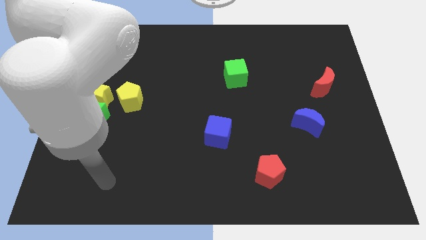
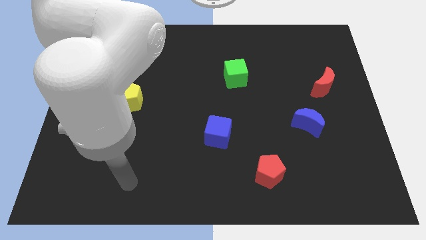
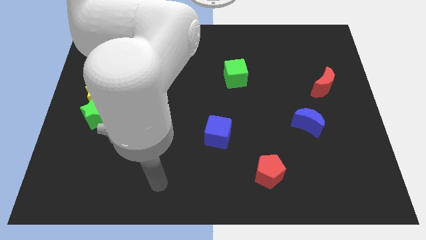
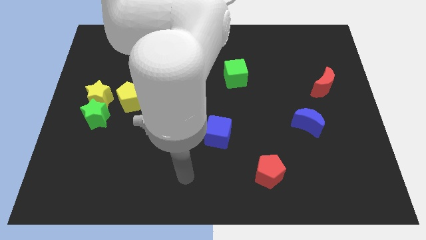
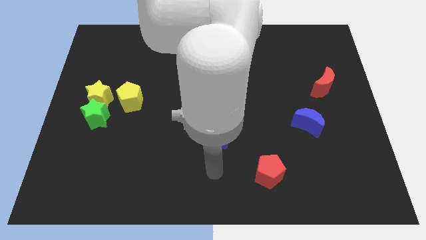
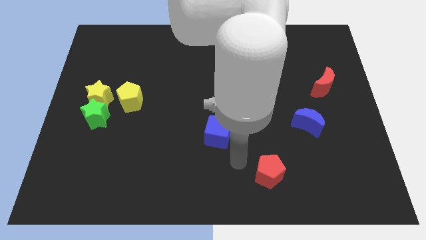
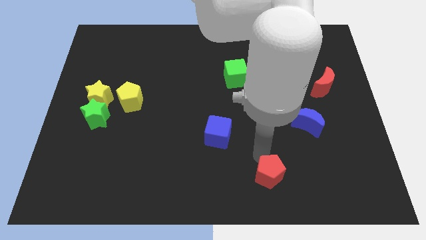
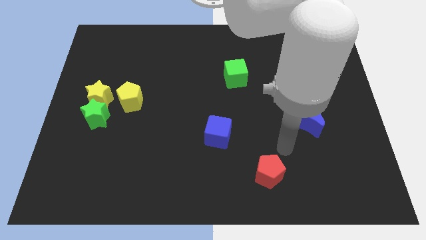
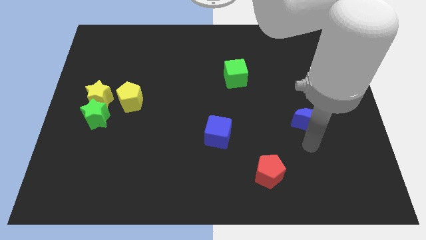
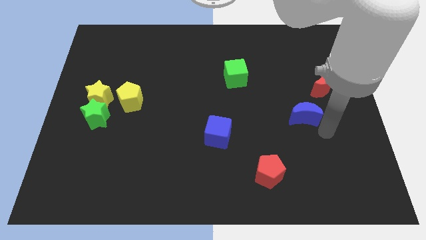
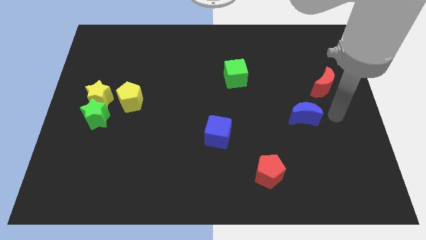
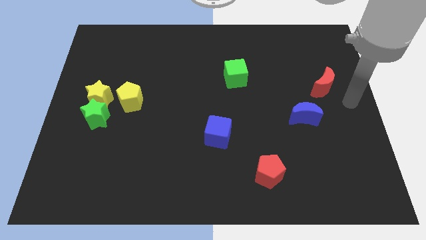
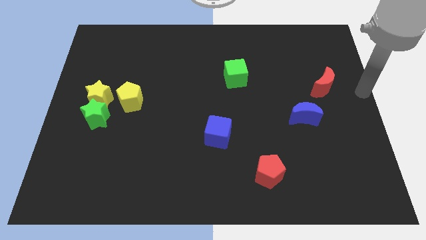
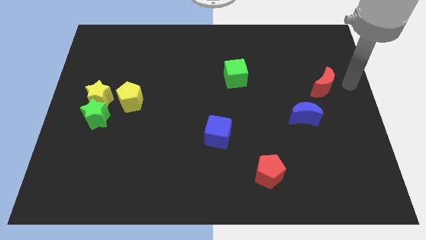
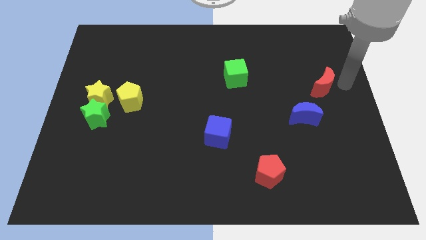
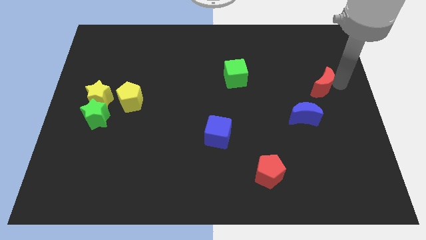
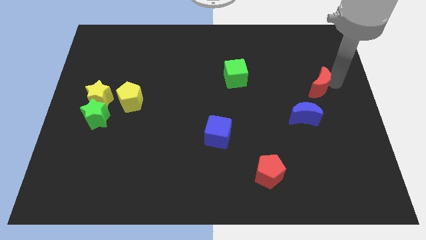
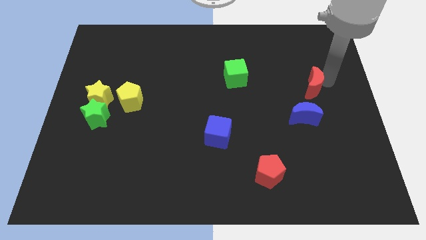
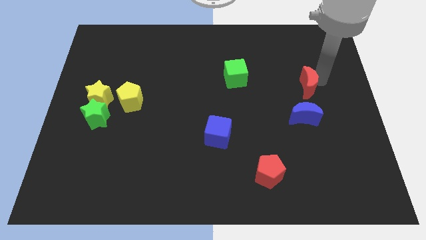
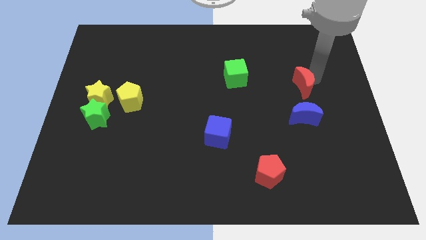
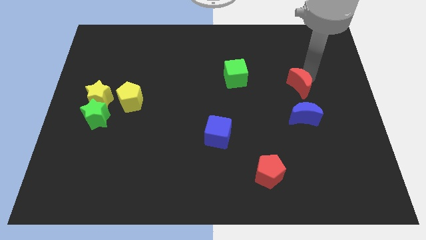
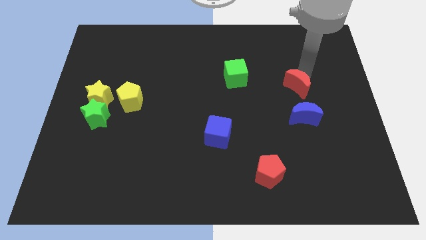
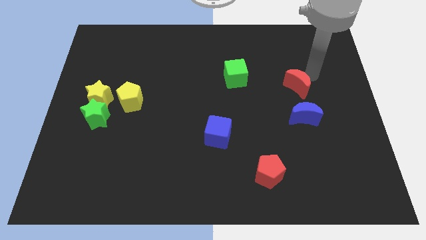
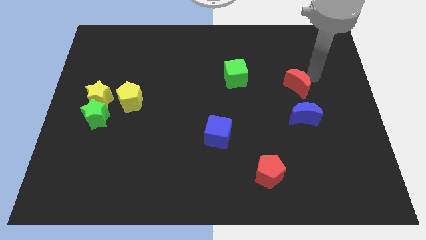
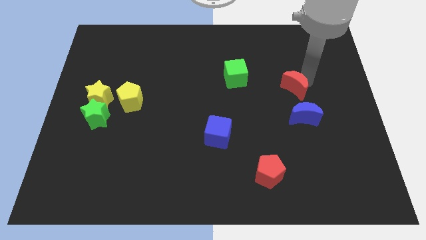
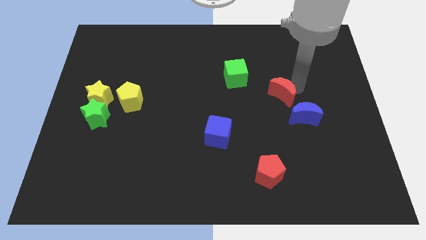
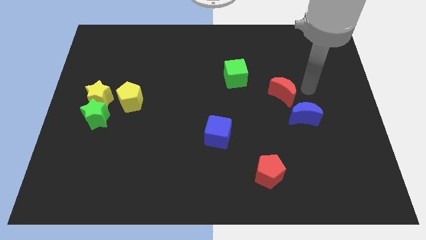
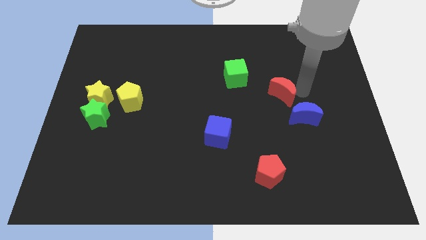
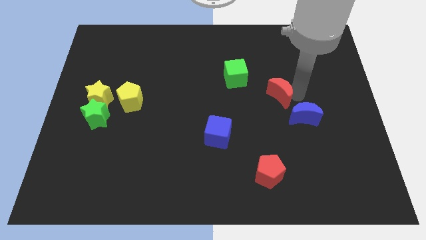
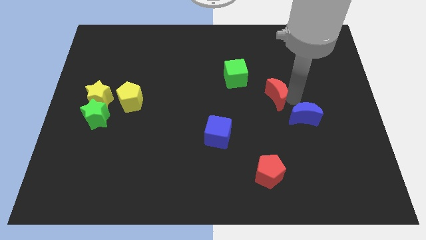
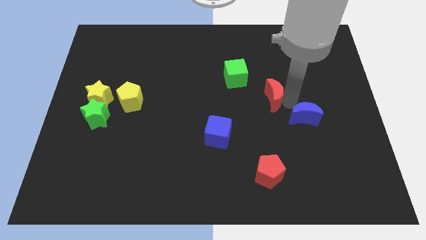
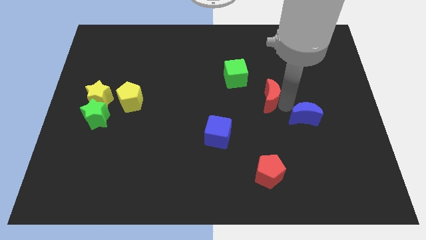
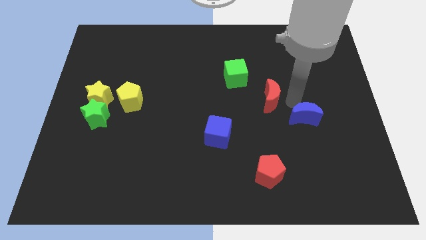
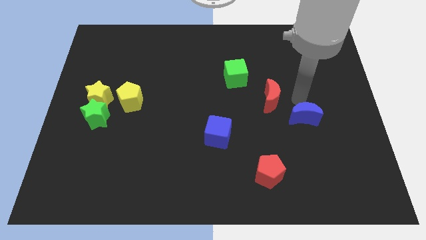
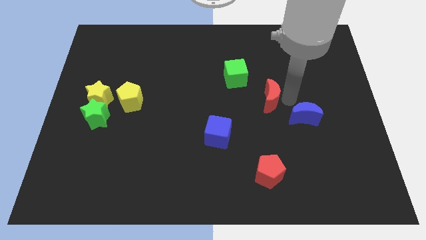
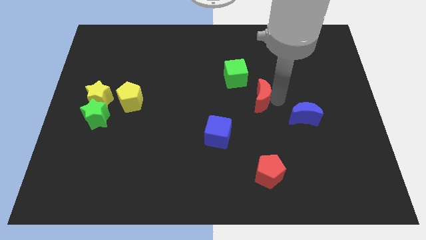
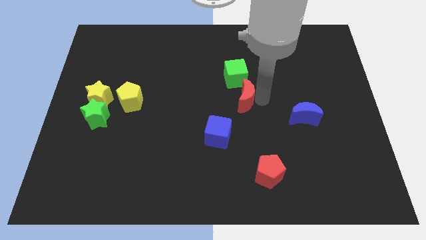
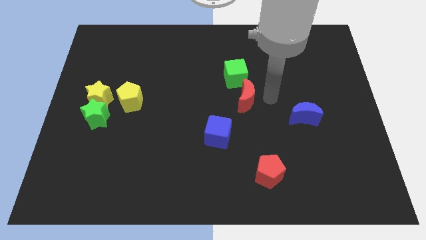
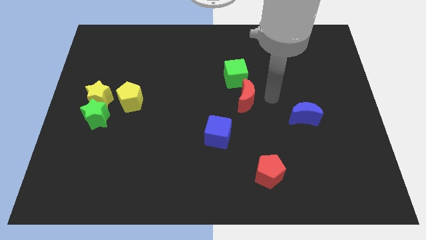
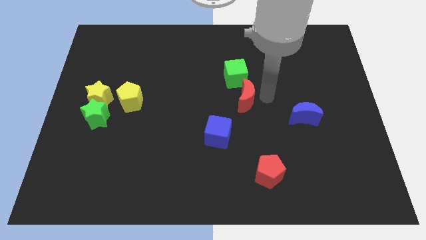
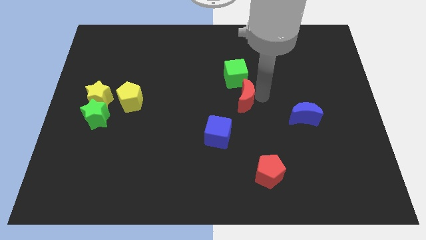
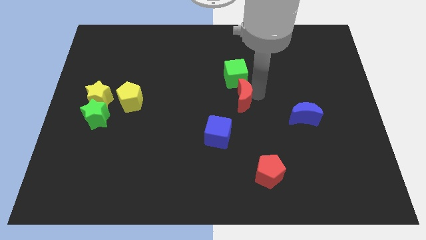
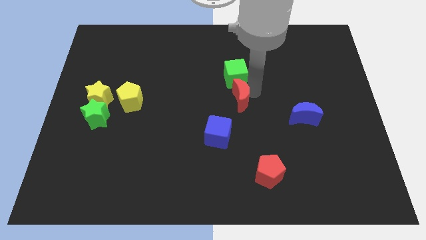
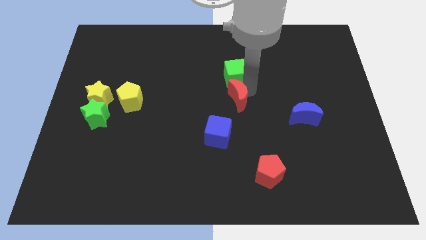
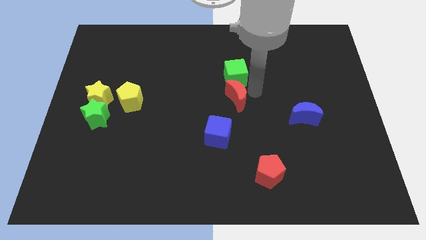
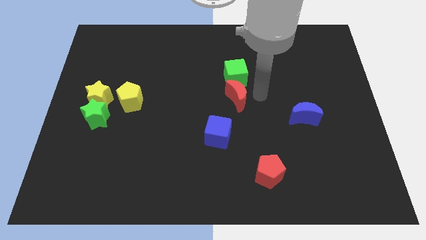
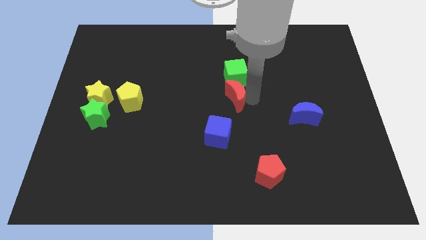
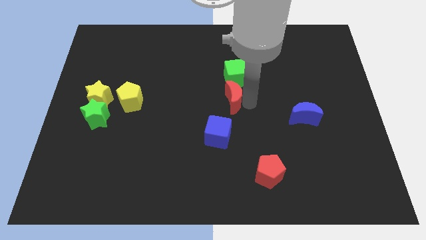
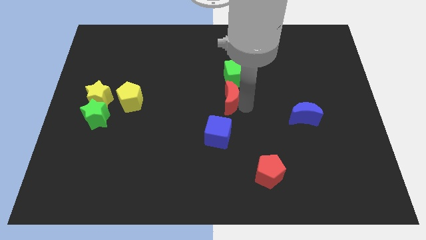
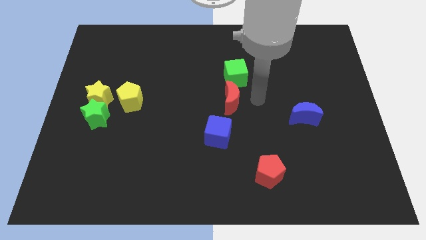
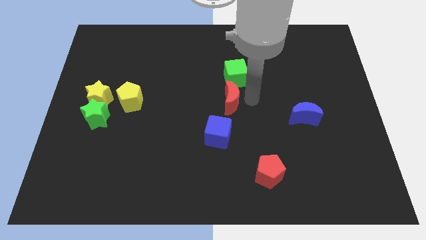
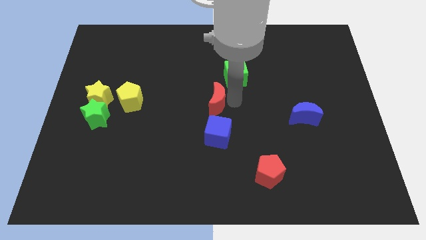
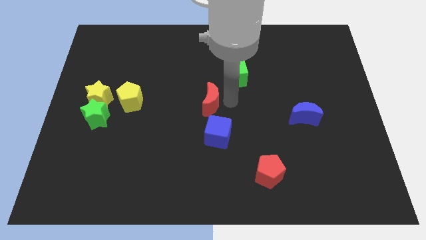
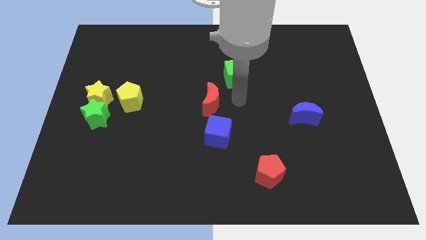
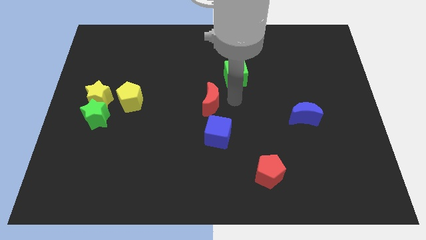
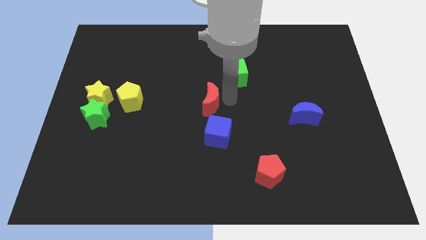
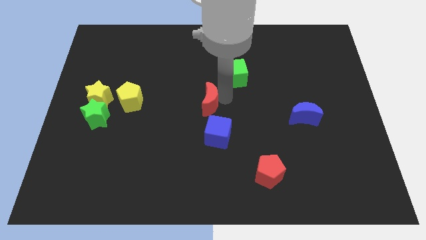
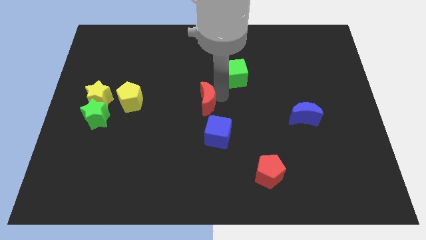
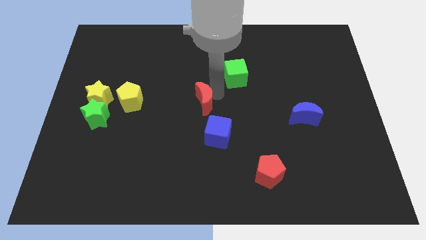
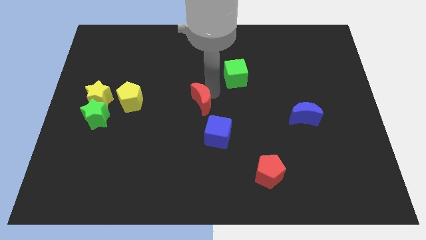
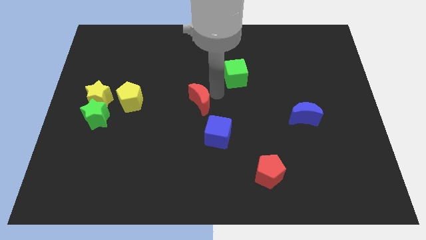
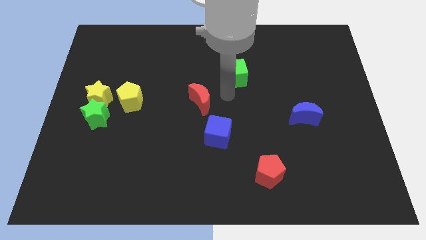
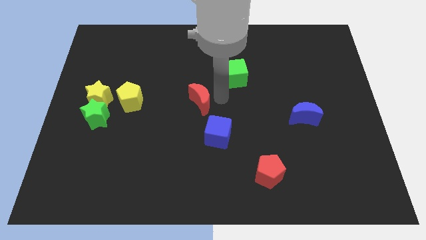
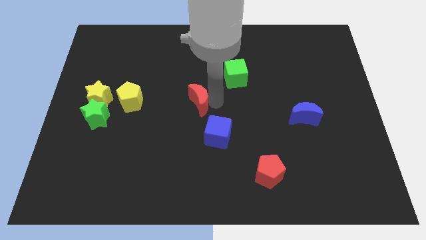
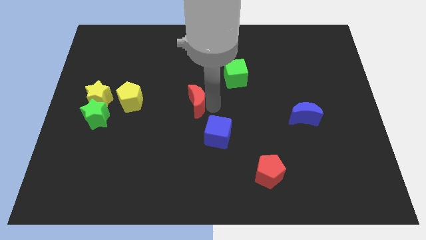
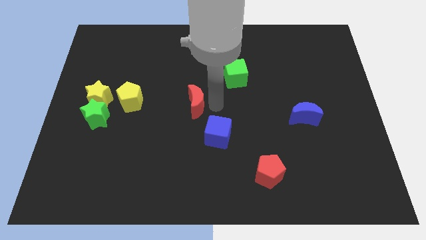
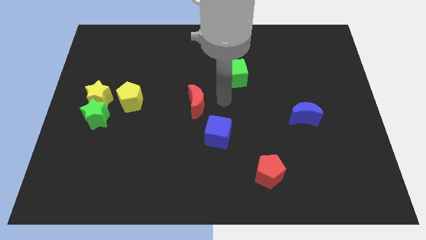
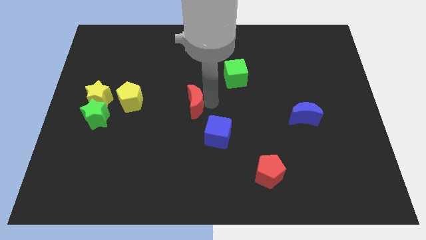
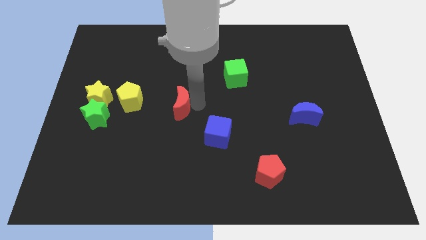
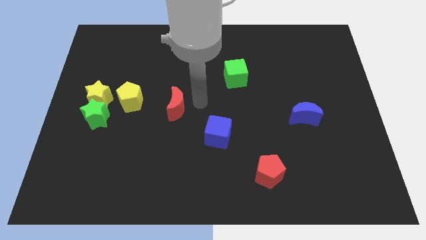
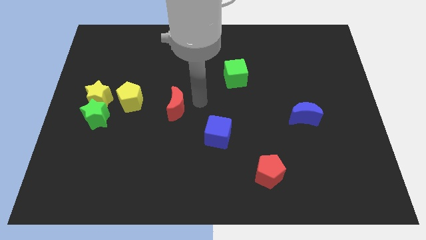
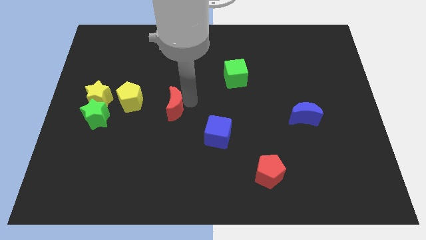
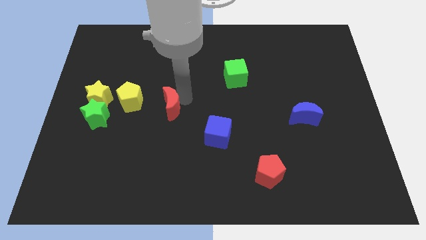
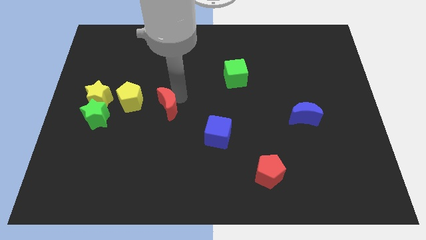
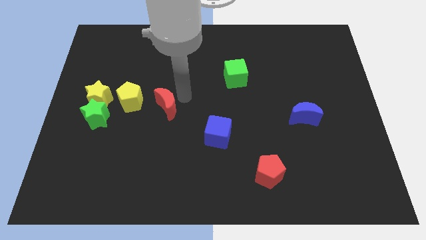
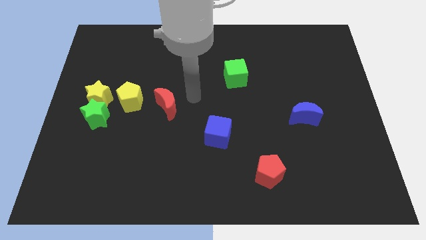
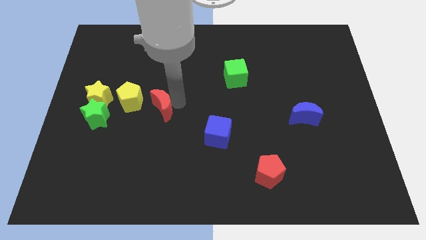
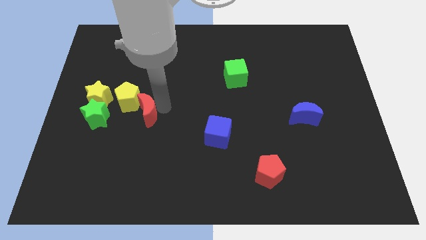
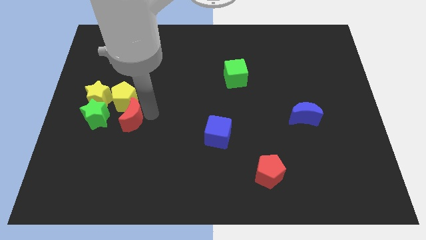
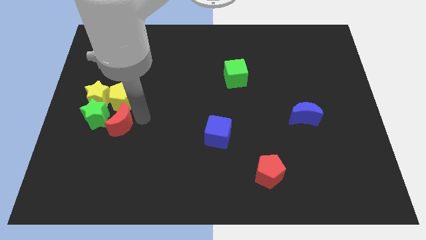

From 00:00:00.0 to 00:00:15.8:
push the red moon next to the green star
